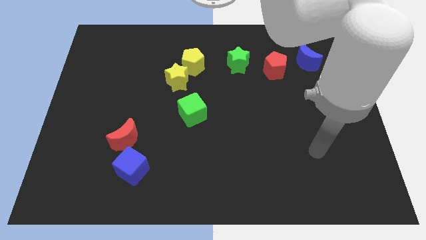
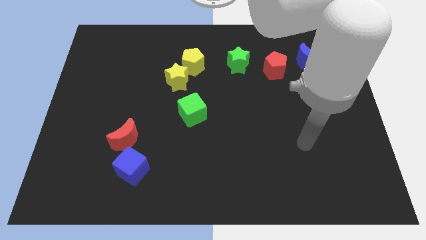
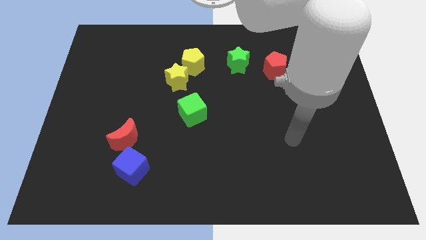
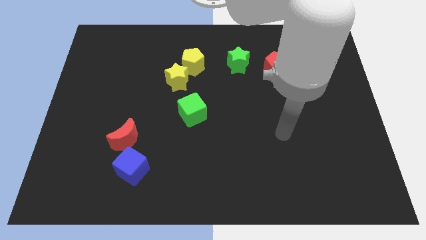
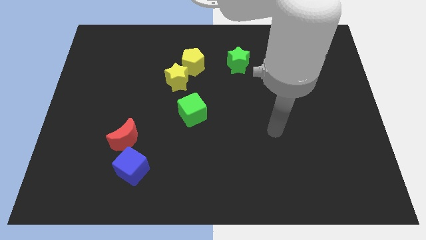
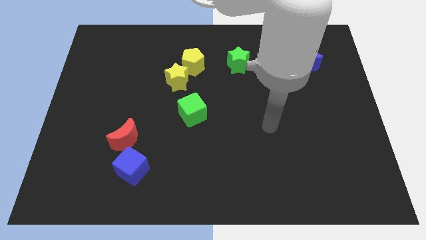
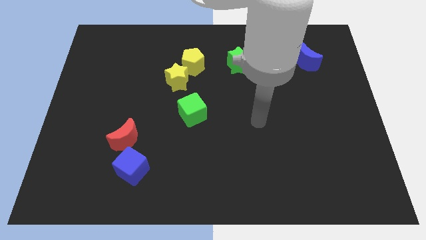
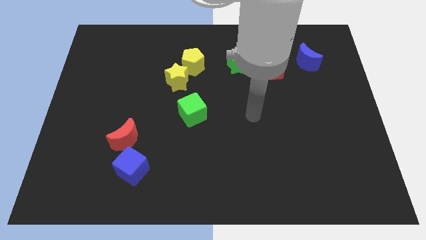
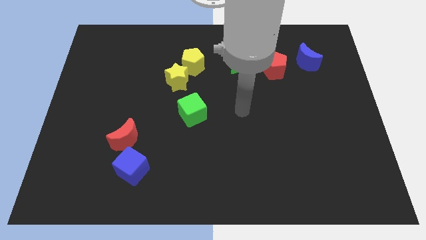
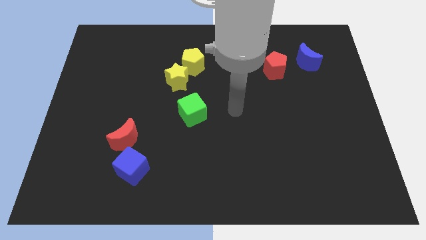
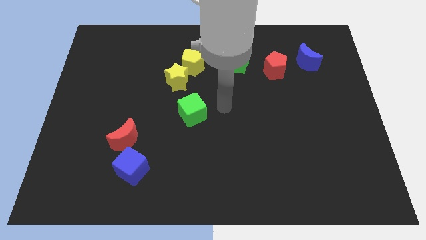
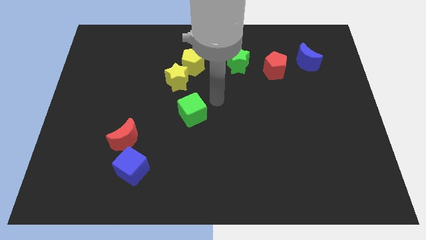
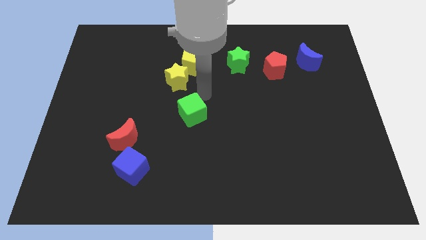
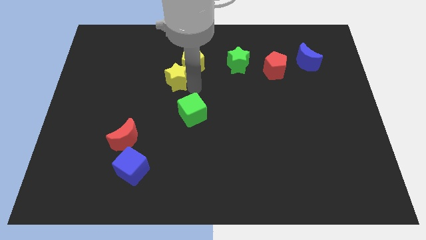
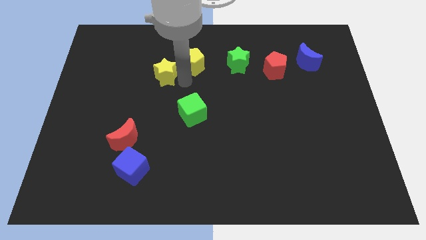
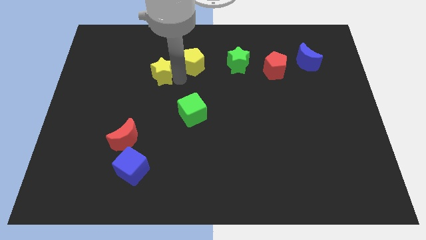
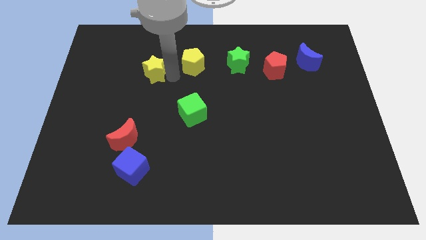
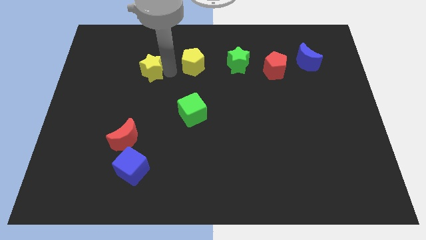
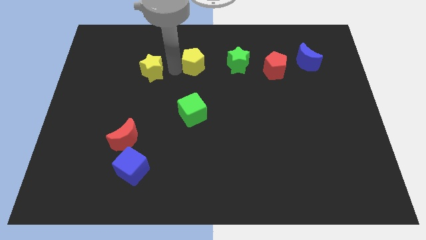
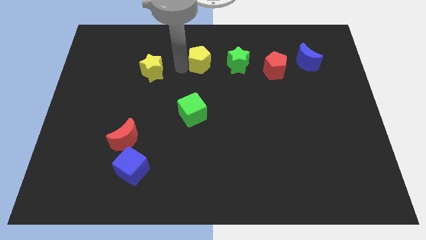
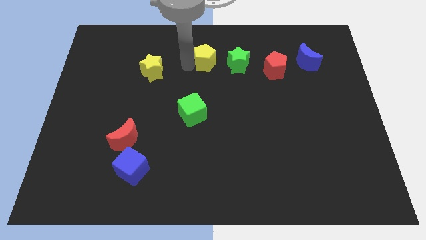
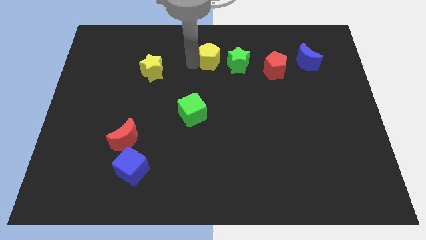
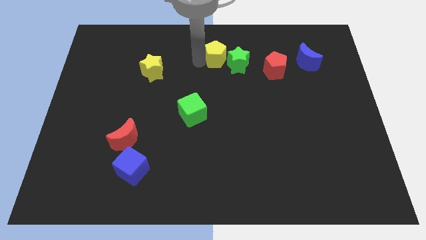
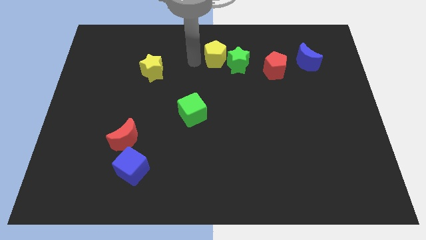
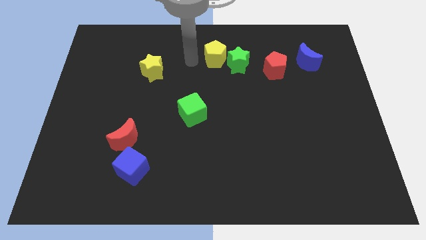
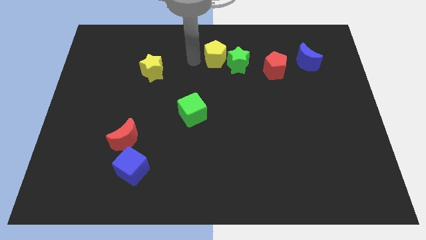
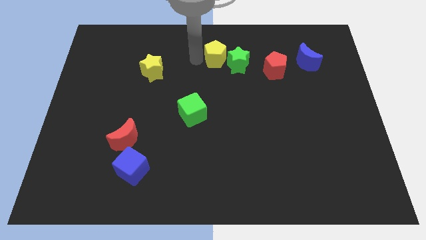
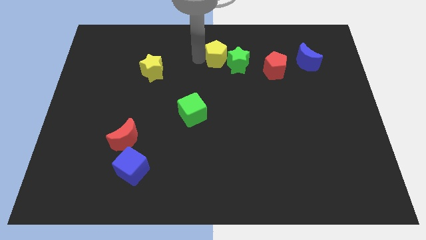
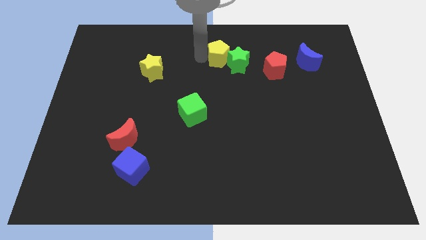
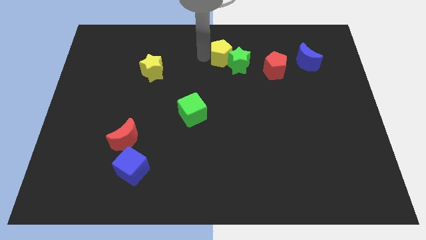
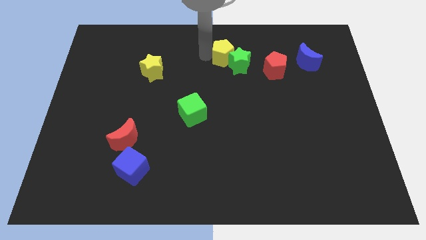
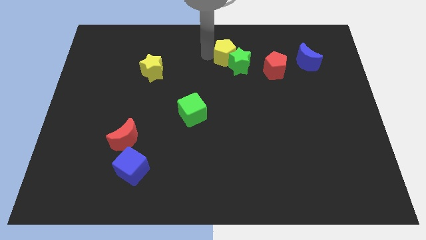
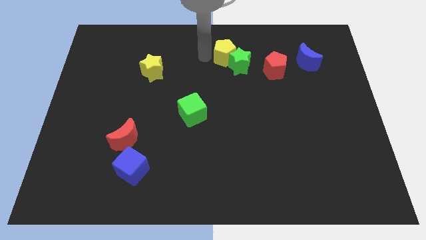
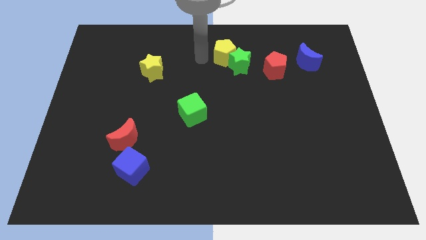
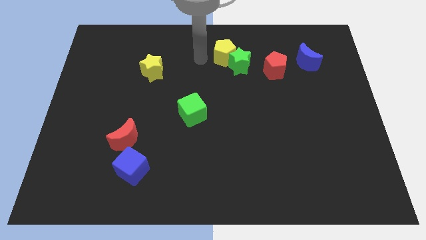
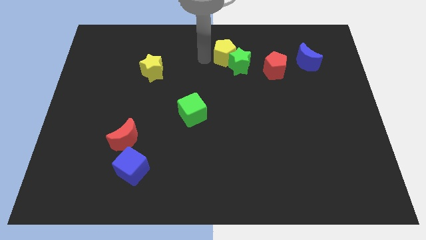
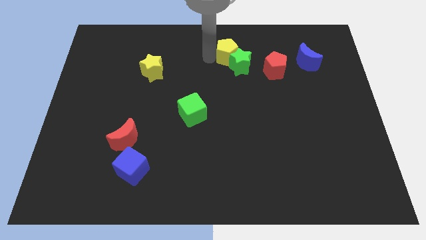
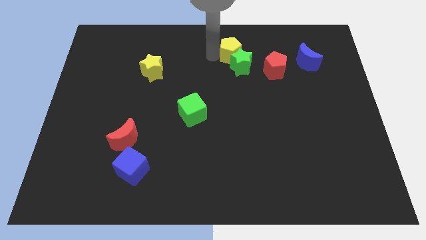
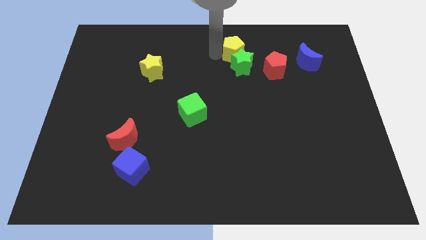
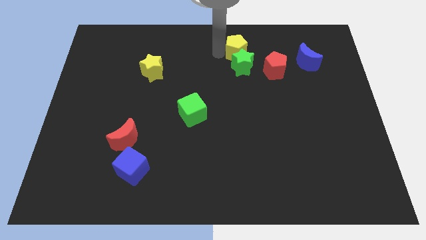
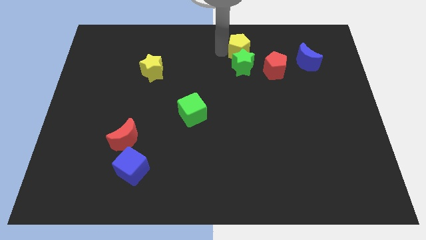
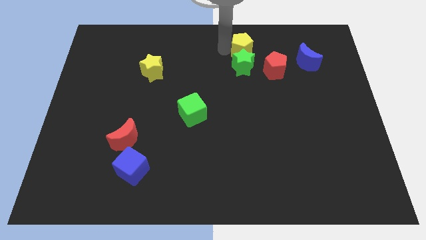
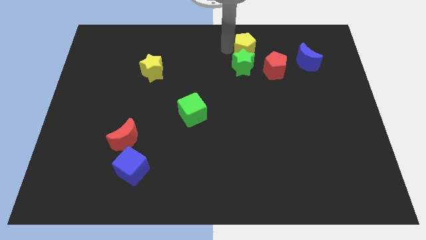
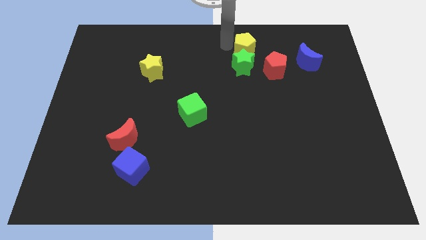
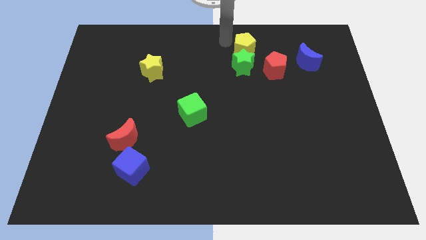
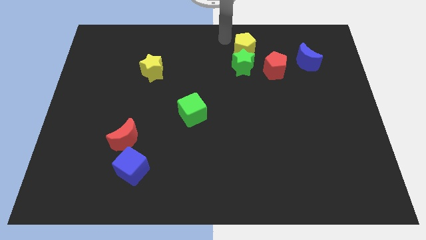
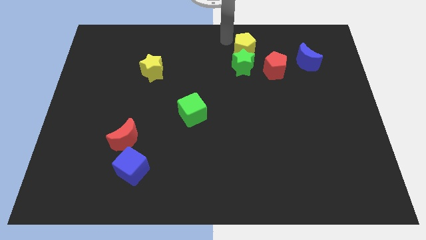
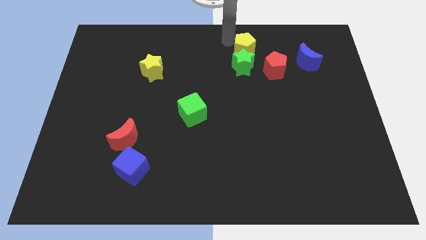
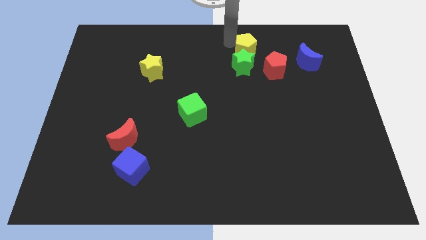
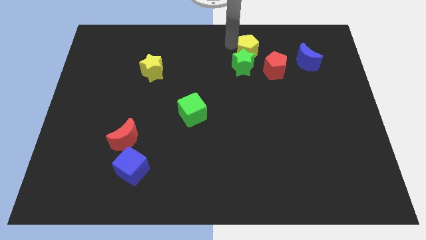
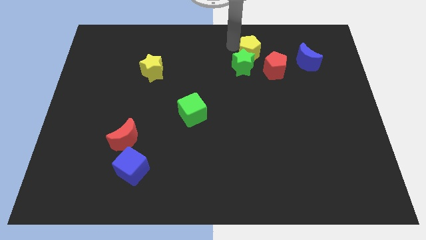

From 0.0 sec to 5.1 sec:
push the yellow pentagon just left of the blue moon

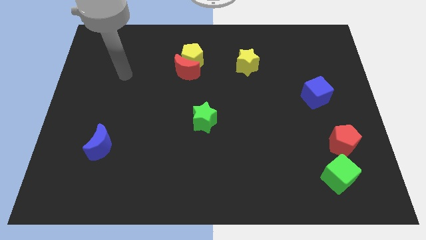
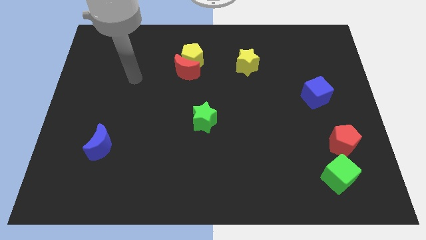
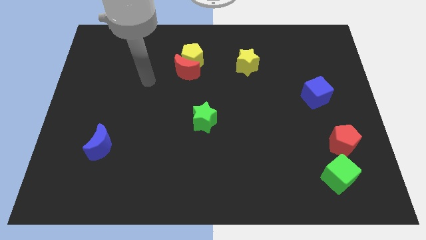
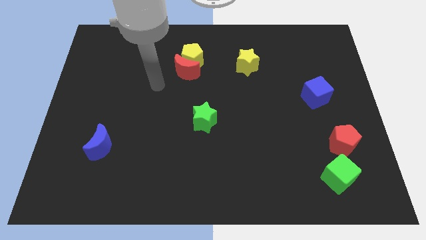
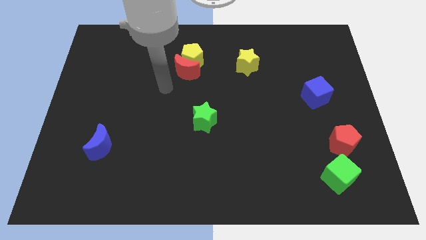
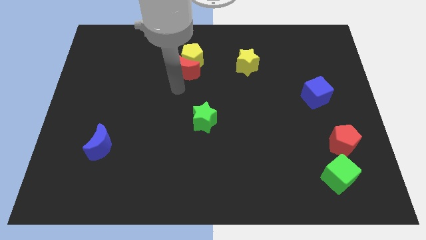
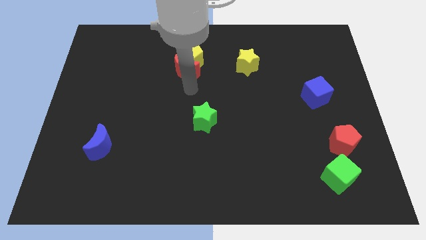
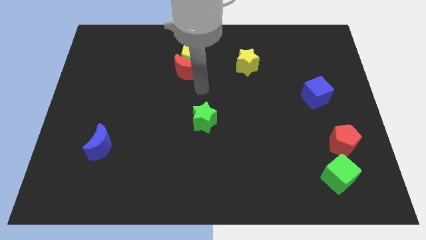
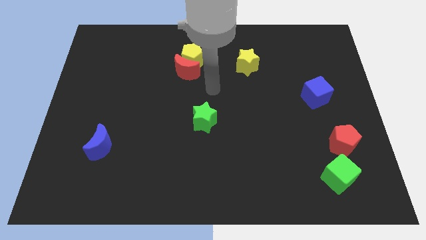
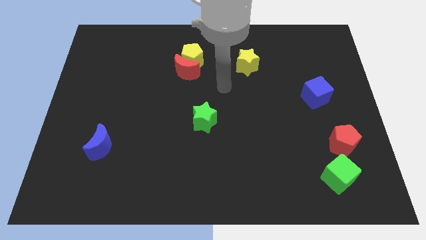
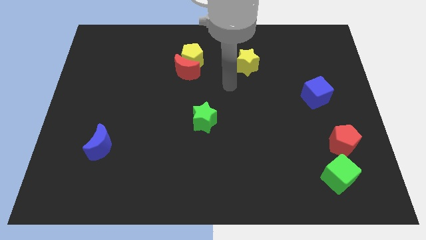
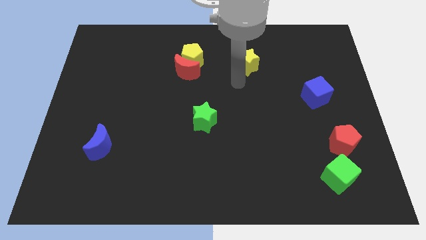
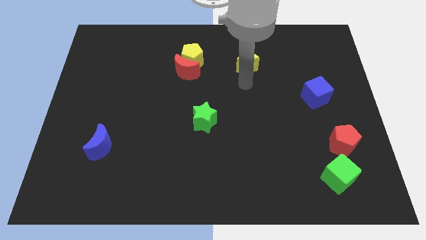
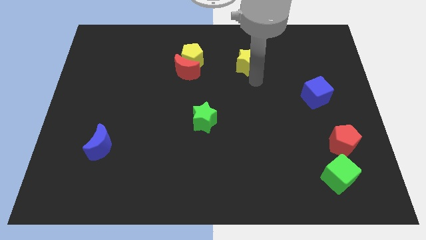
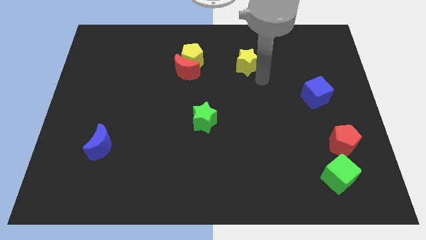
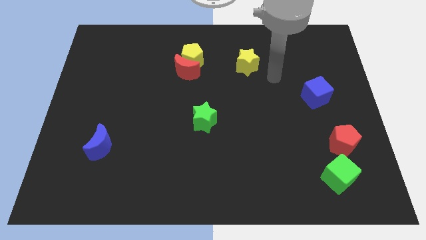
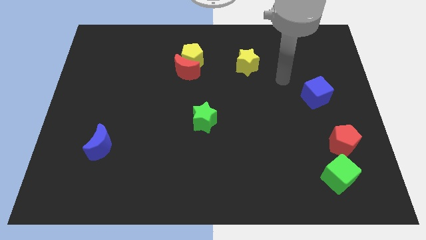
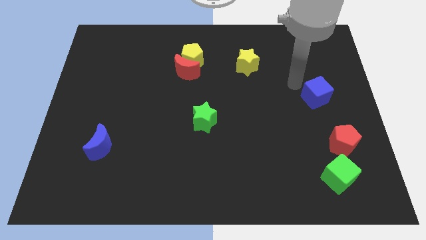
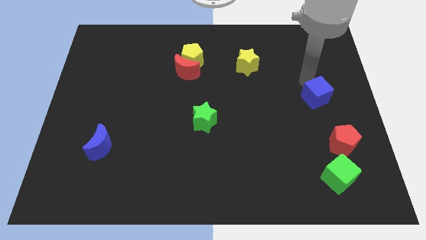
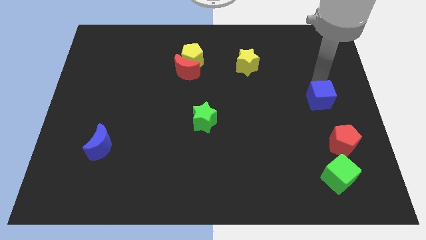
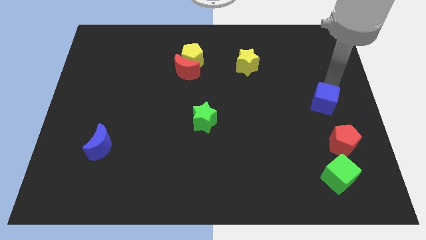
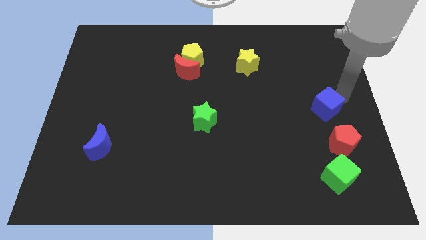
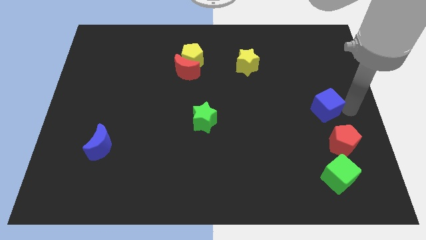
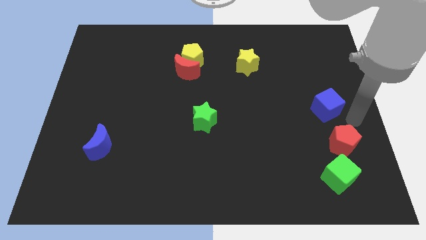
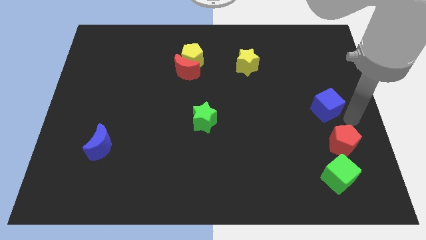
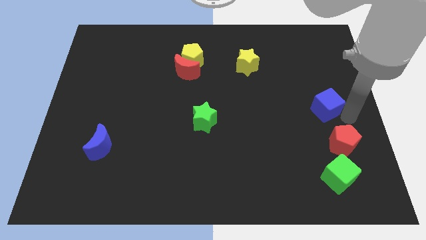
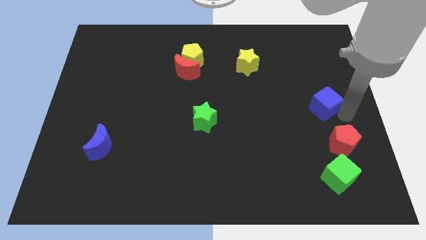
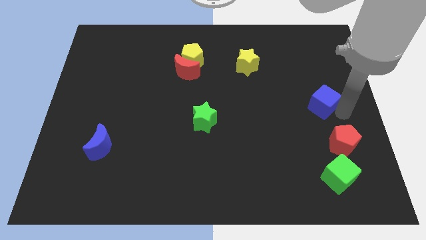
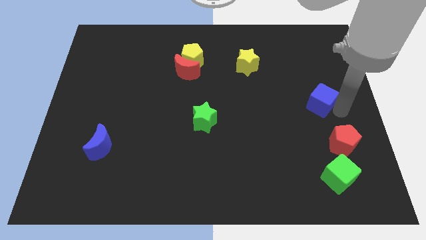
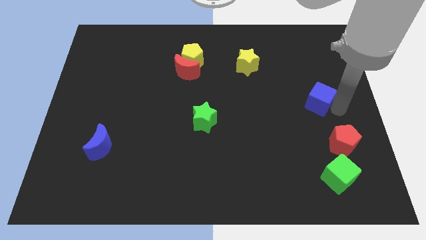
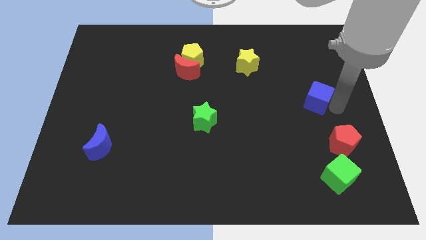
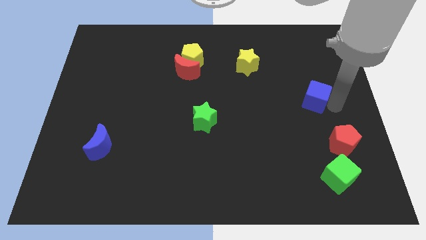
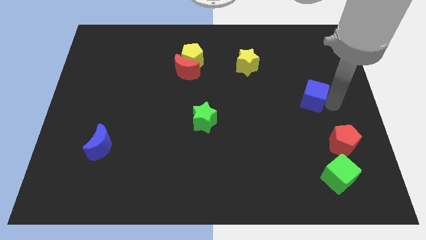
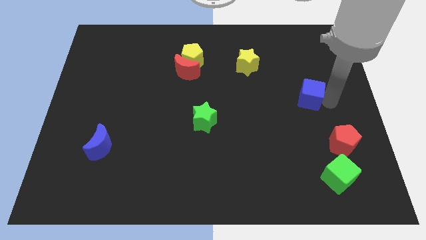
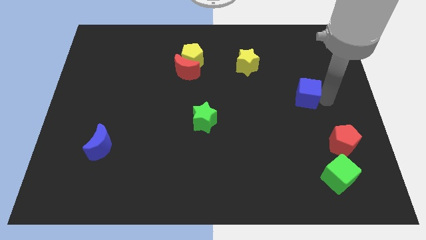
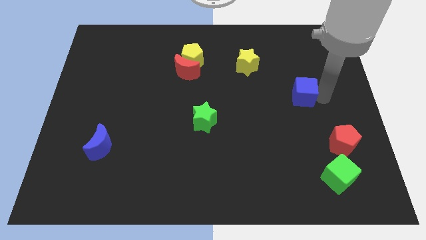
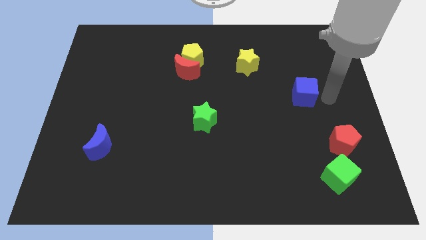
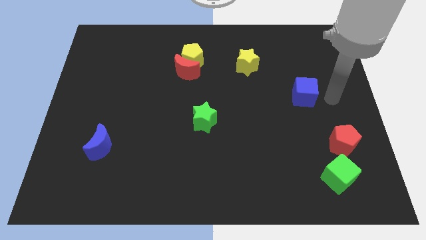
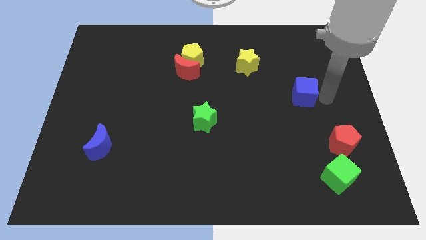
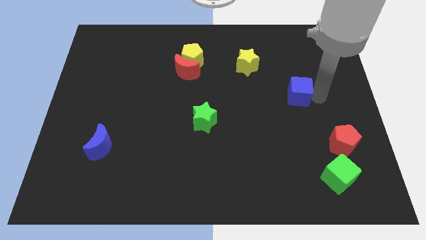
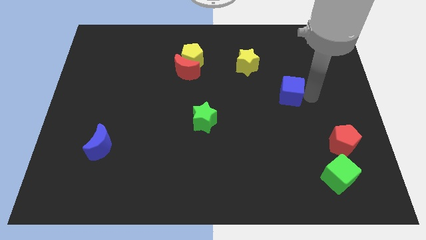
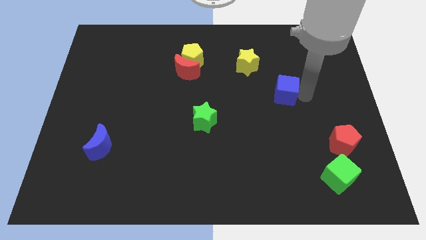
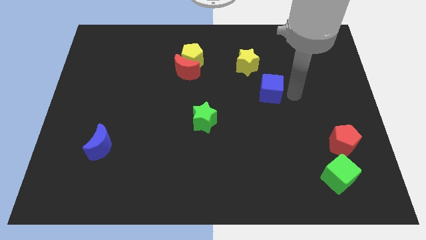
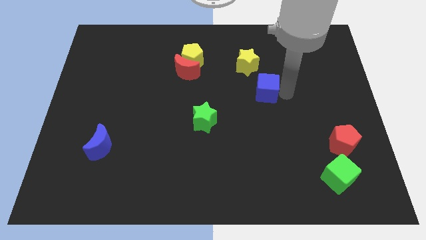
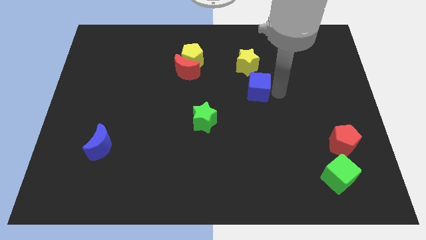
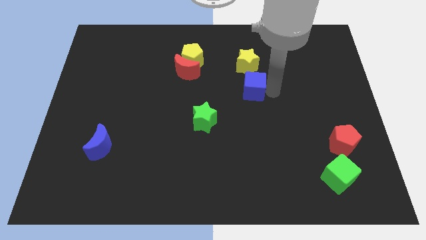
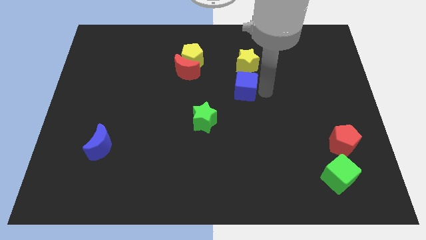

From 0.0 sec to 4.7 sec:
slide the blue cube to the bottom left of the yellow star
